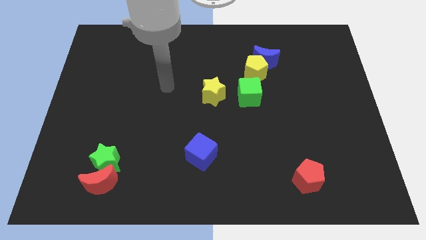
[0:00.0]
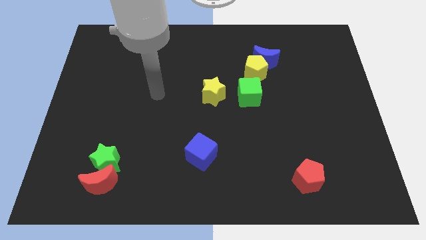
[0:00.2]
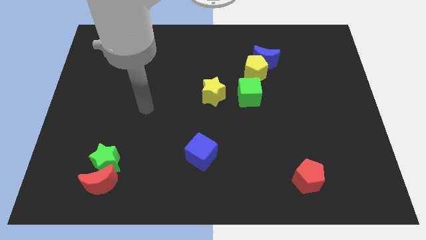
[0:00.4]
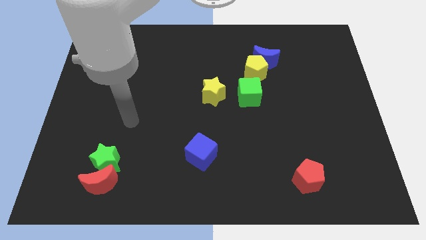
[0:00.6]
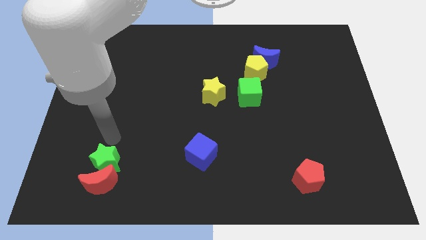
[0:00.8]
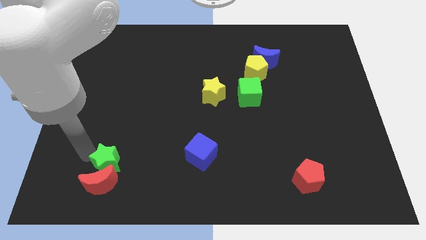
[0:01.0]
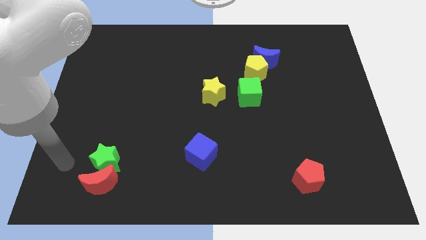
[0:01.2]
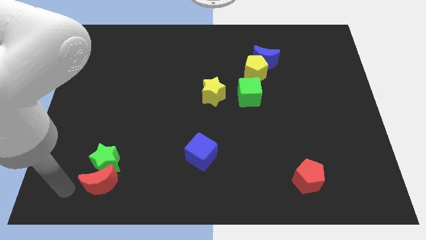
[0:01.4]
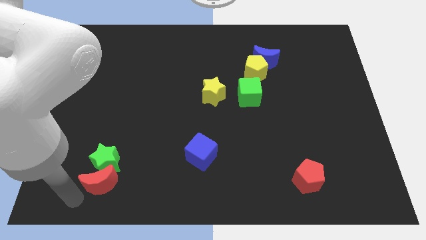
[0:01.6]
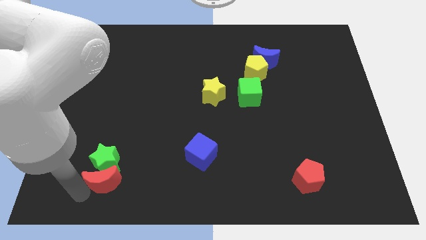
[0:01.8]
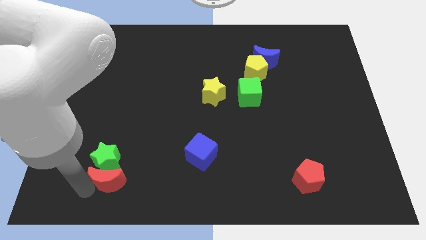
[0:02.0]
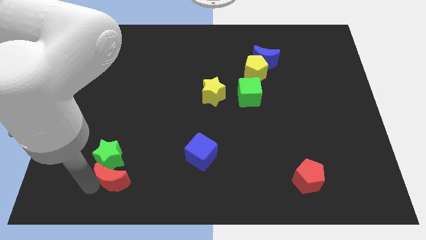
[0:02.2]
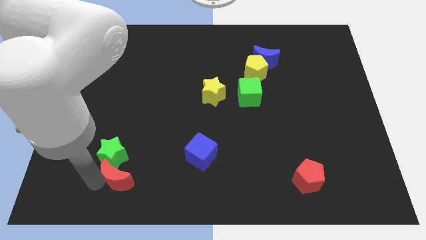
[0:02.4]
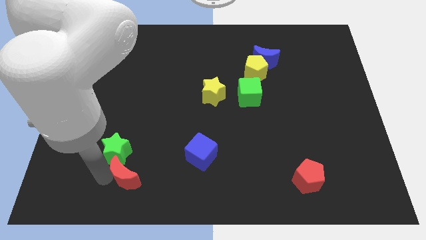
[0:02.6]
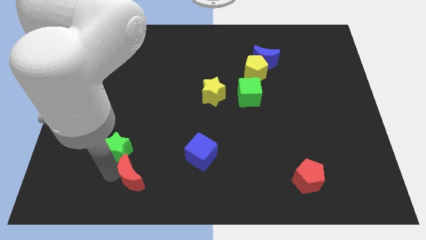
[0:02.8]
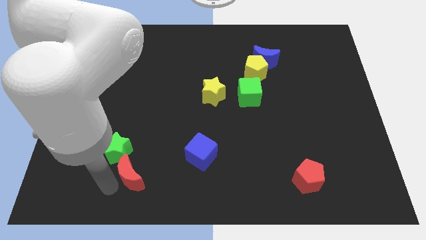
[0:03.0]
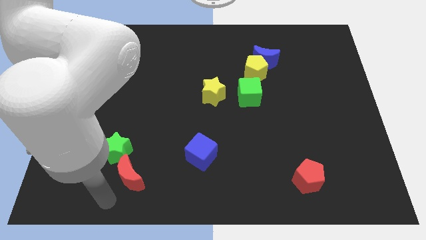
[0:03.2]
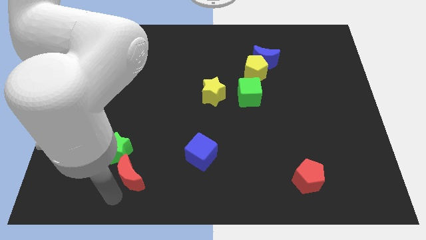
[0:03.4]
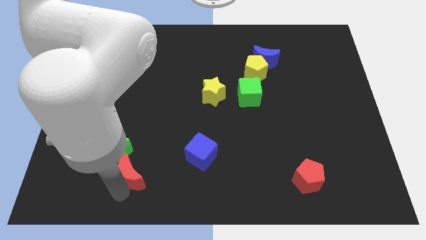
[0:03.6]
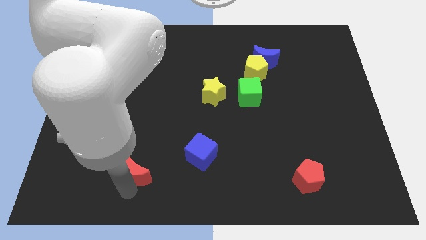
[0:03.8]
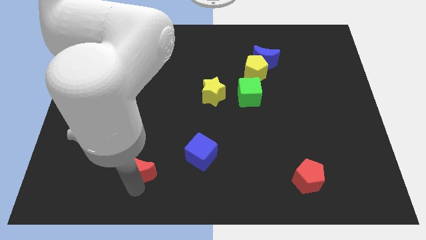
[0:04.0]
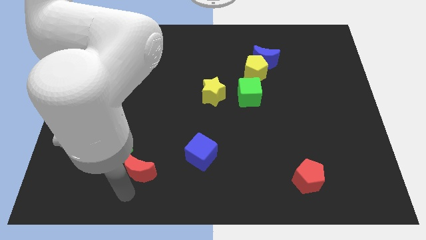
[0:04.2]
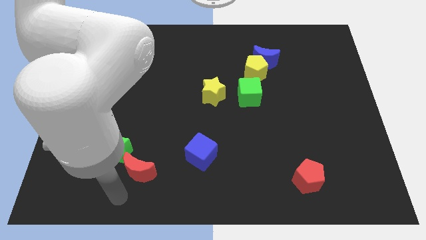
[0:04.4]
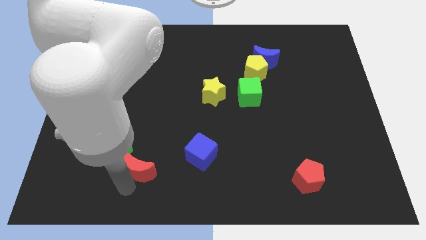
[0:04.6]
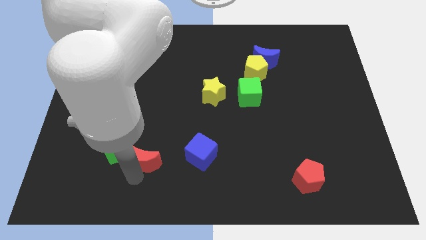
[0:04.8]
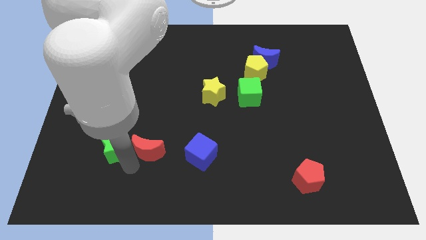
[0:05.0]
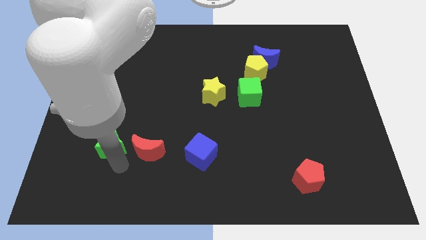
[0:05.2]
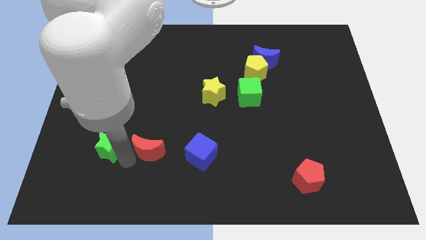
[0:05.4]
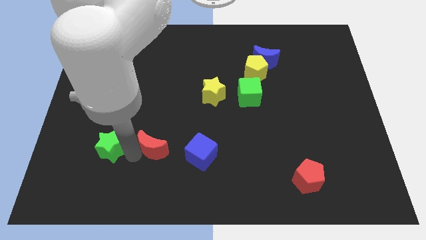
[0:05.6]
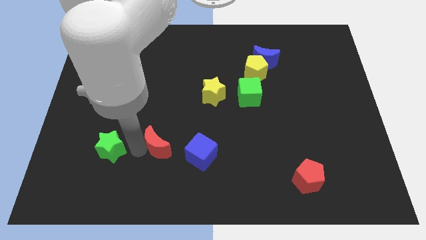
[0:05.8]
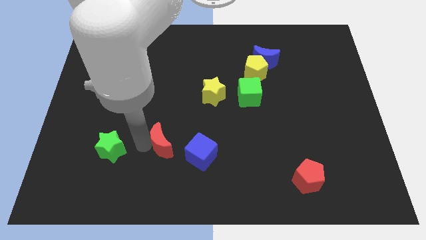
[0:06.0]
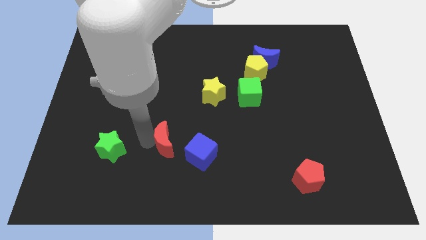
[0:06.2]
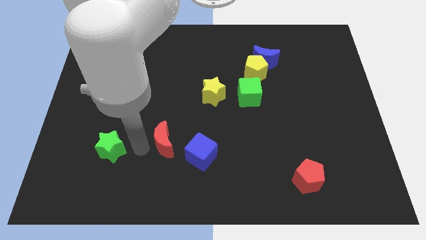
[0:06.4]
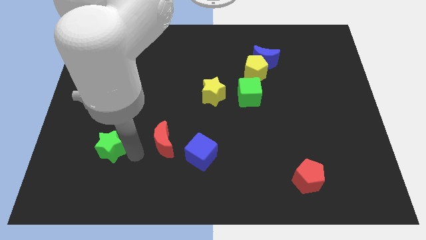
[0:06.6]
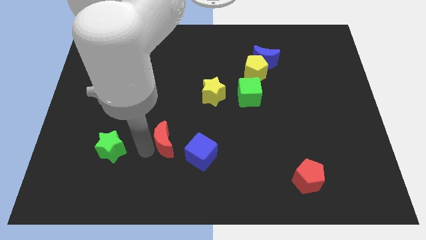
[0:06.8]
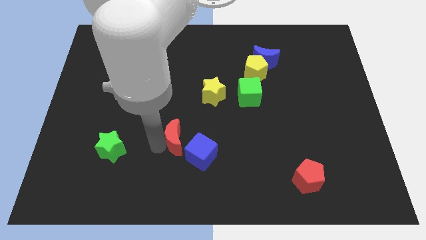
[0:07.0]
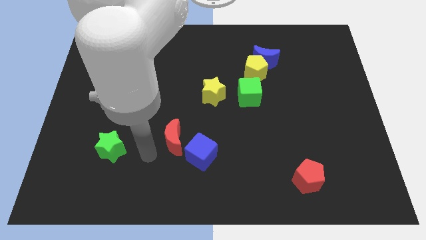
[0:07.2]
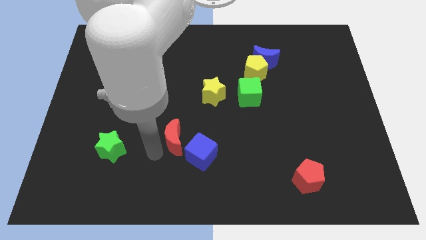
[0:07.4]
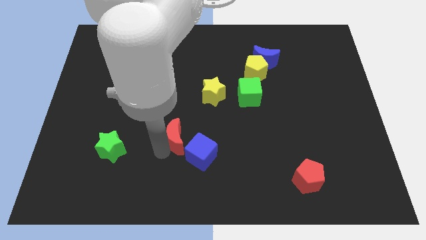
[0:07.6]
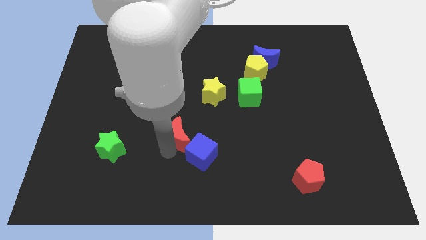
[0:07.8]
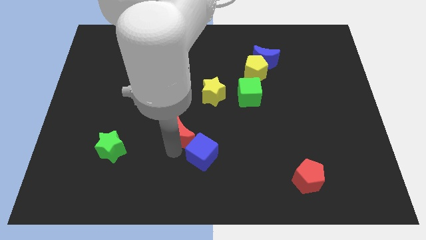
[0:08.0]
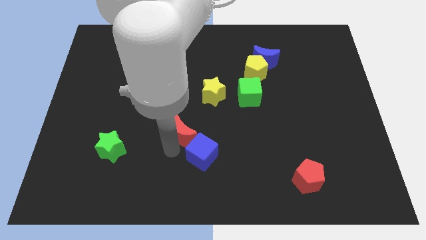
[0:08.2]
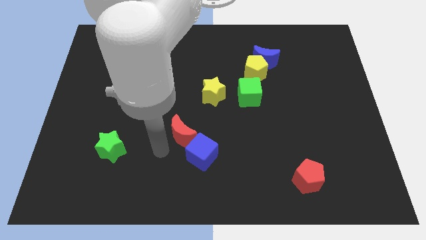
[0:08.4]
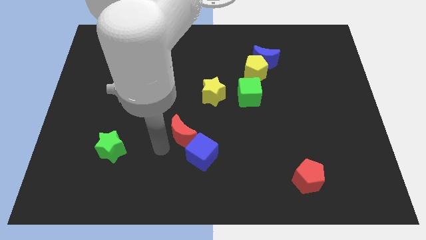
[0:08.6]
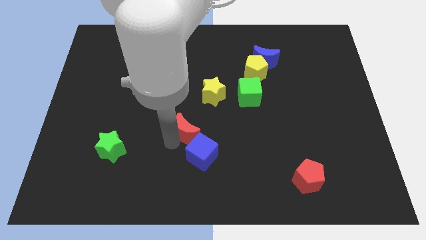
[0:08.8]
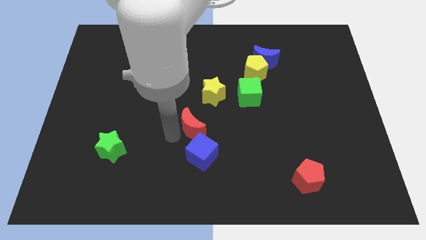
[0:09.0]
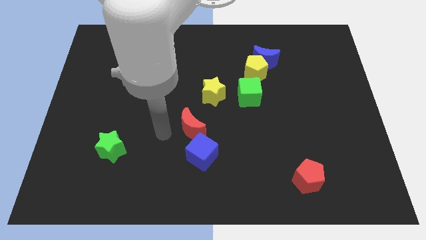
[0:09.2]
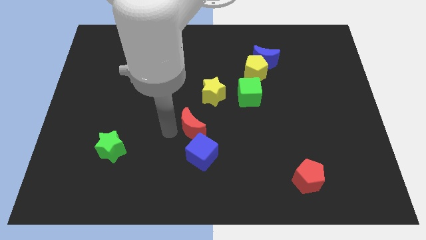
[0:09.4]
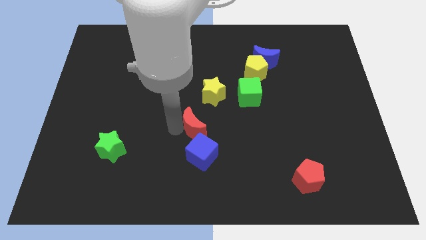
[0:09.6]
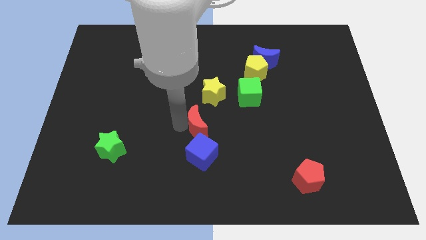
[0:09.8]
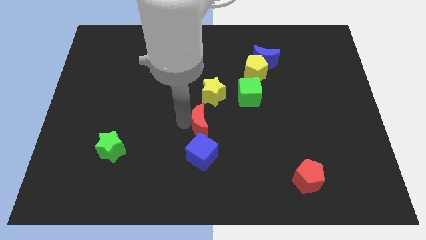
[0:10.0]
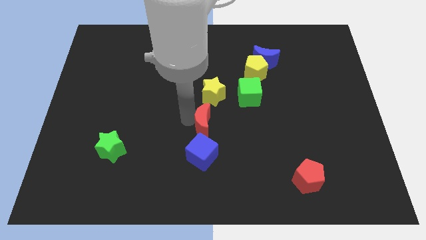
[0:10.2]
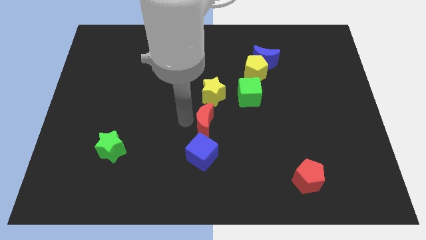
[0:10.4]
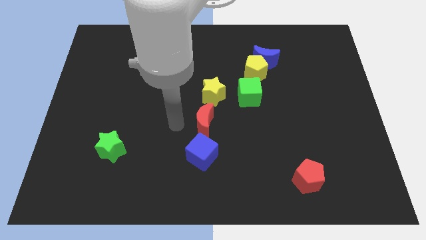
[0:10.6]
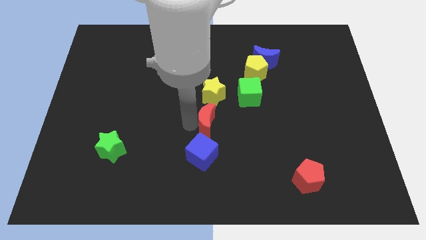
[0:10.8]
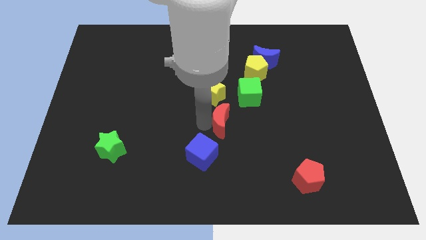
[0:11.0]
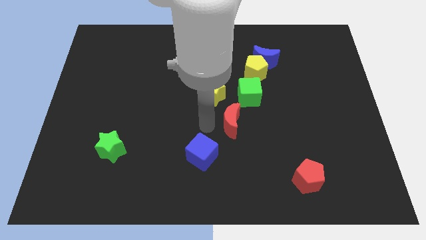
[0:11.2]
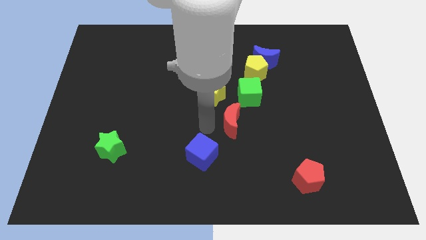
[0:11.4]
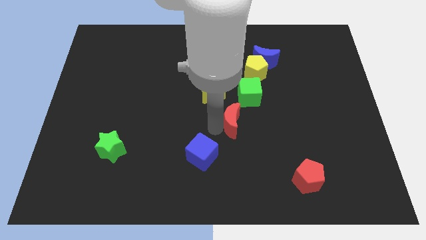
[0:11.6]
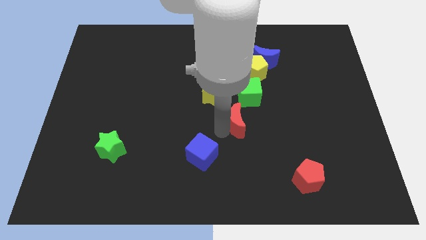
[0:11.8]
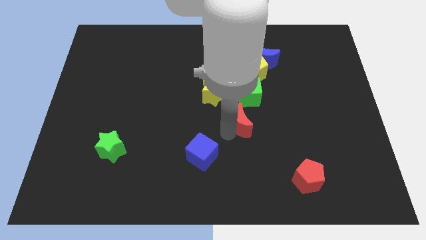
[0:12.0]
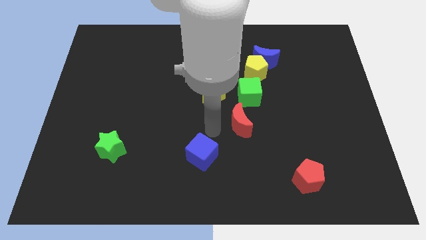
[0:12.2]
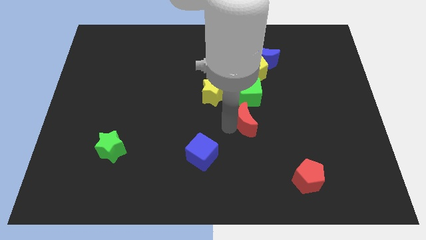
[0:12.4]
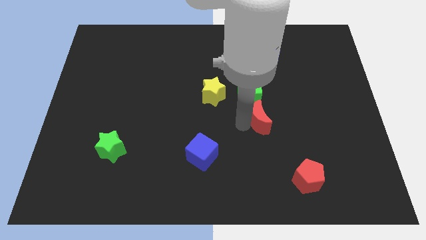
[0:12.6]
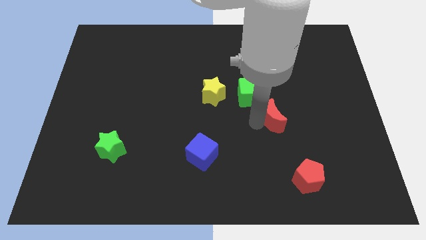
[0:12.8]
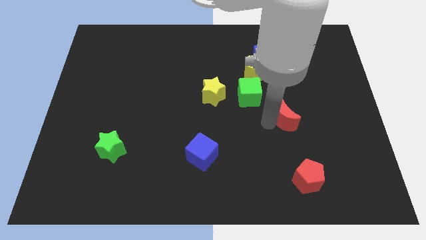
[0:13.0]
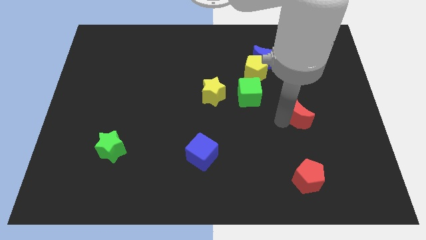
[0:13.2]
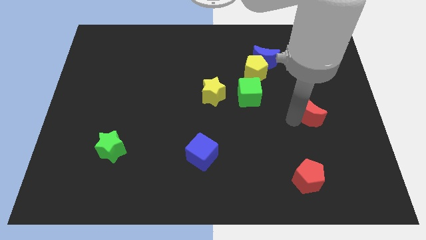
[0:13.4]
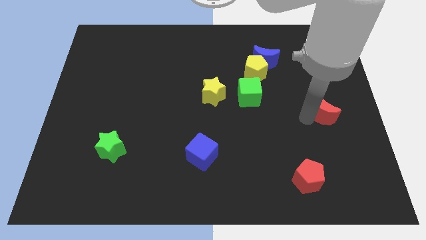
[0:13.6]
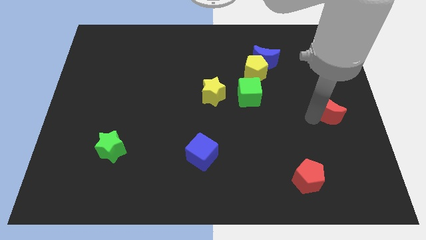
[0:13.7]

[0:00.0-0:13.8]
put the red moon to the right side of the board
